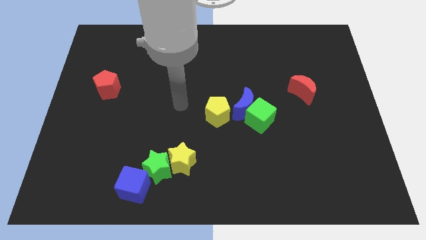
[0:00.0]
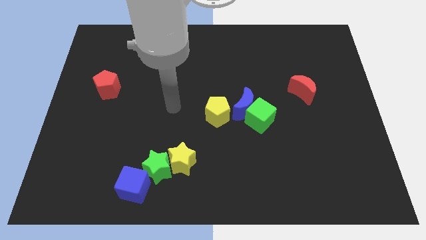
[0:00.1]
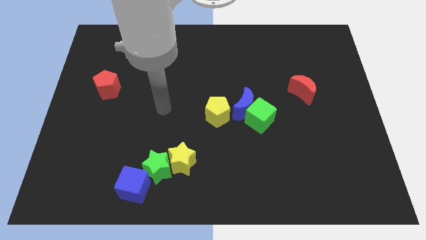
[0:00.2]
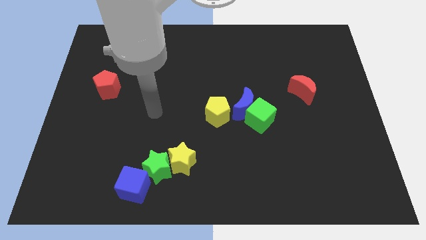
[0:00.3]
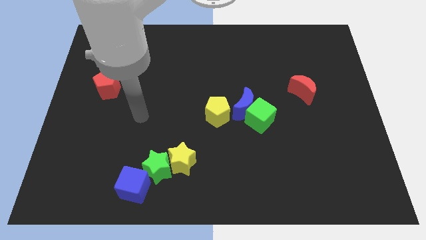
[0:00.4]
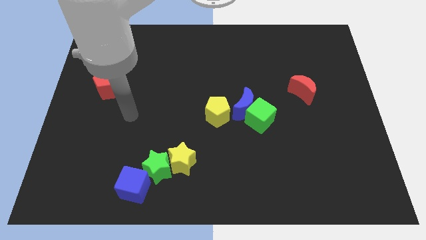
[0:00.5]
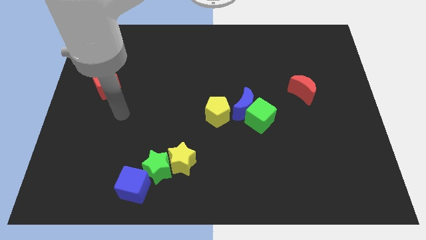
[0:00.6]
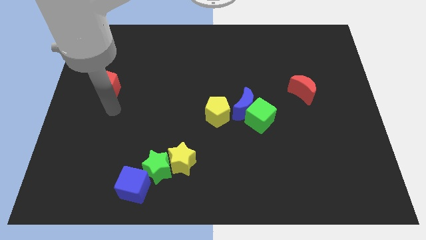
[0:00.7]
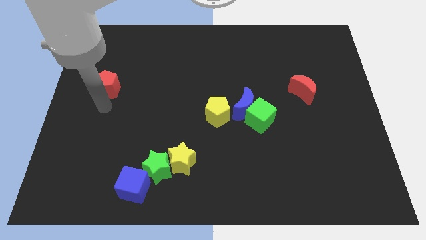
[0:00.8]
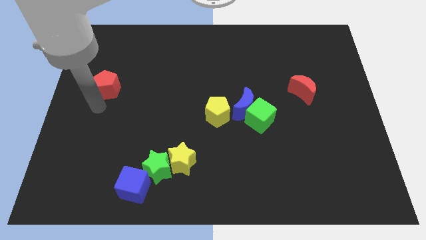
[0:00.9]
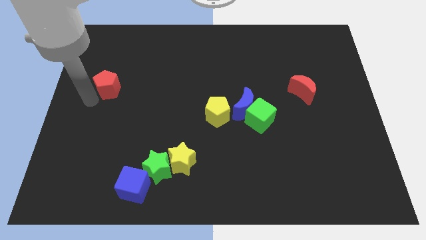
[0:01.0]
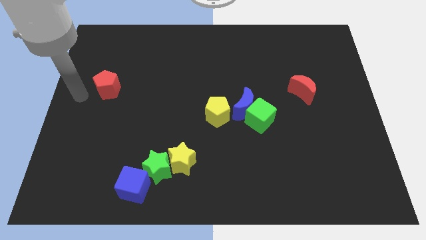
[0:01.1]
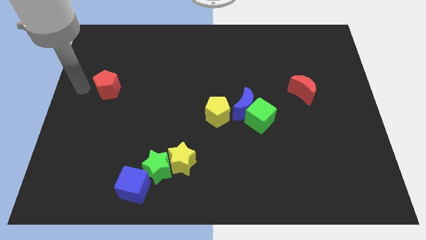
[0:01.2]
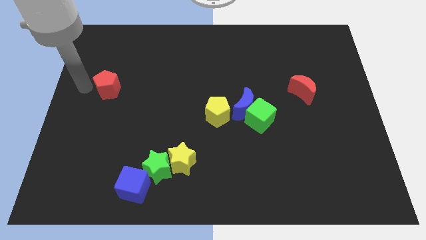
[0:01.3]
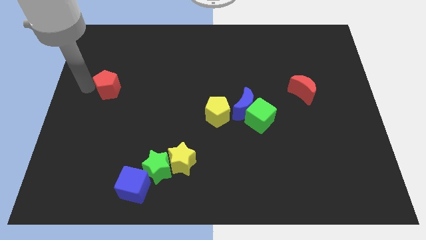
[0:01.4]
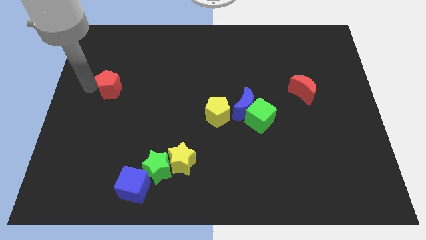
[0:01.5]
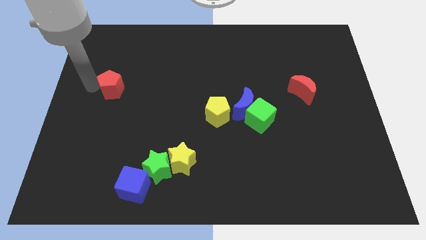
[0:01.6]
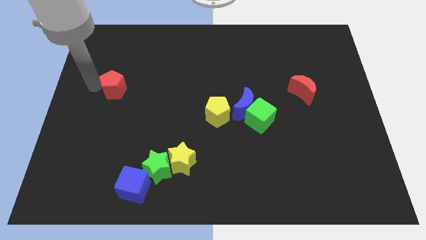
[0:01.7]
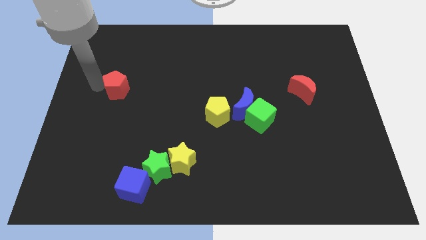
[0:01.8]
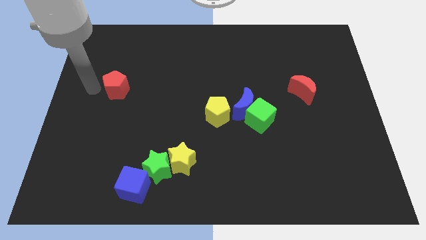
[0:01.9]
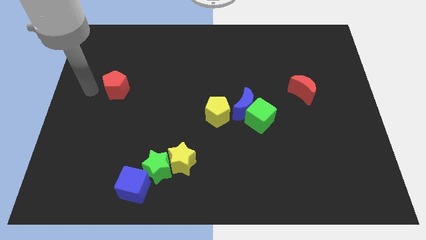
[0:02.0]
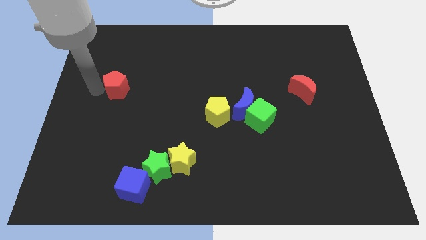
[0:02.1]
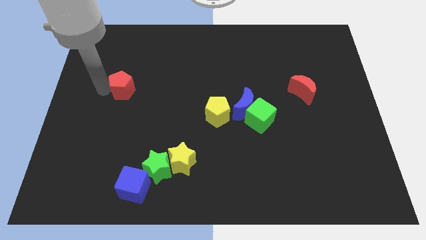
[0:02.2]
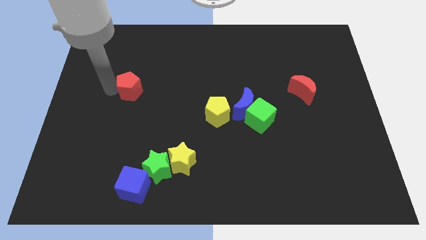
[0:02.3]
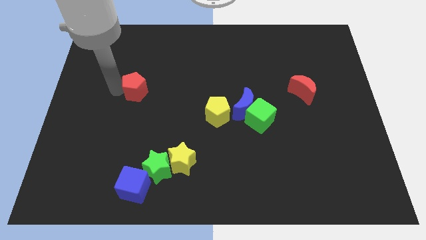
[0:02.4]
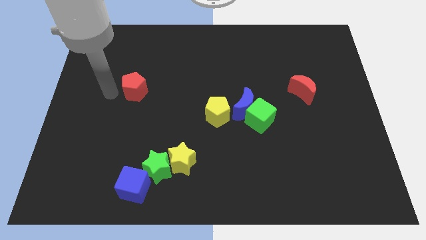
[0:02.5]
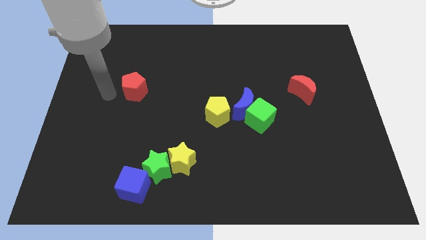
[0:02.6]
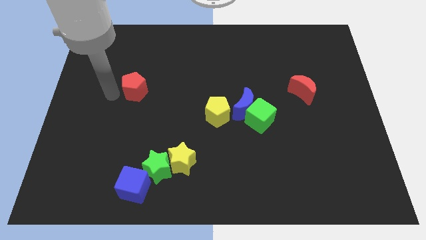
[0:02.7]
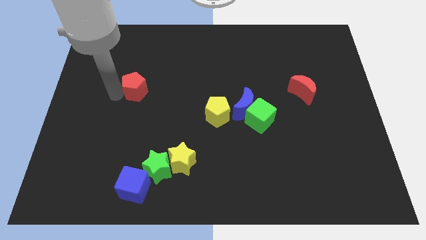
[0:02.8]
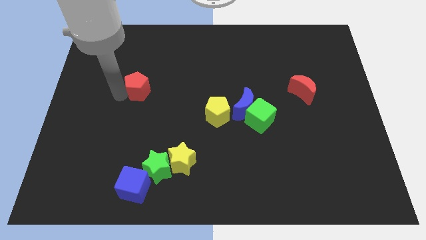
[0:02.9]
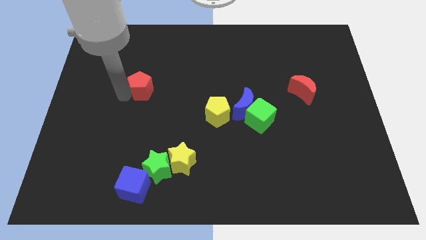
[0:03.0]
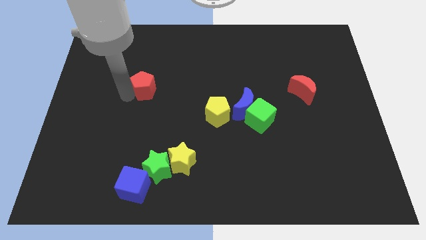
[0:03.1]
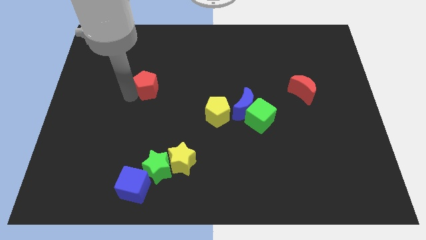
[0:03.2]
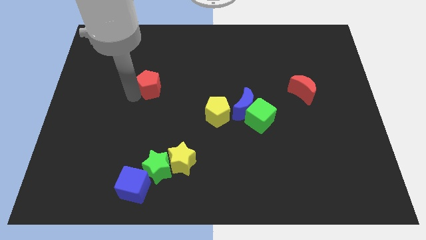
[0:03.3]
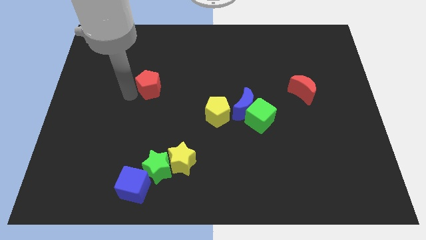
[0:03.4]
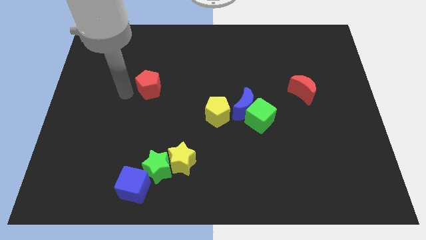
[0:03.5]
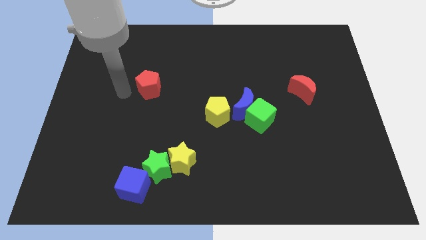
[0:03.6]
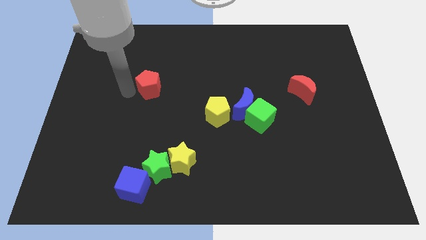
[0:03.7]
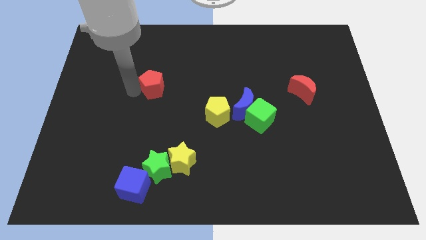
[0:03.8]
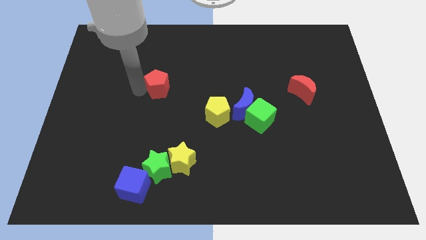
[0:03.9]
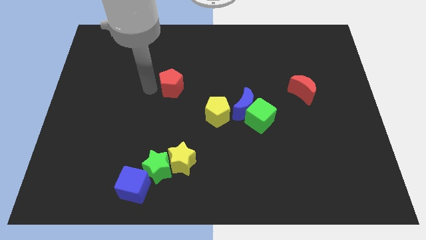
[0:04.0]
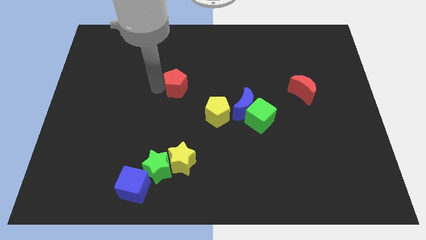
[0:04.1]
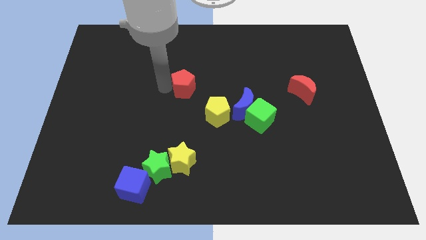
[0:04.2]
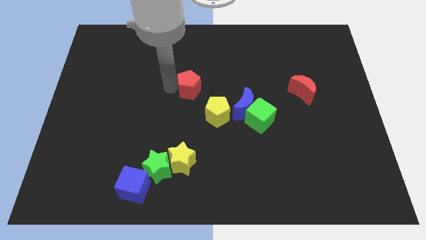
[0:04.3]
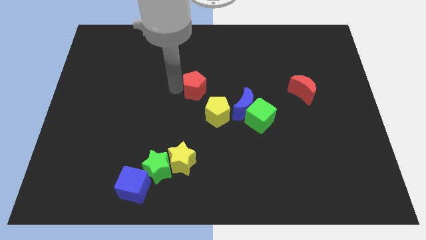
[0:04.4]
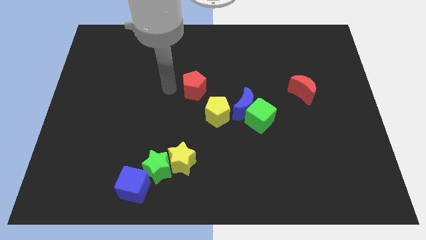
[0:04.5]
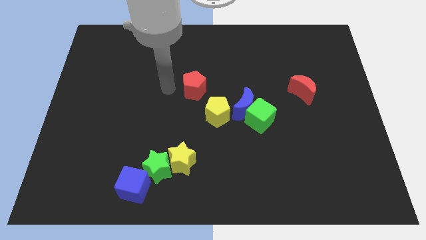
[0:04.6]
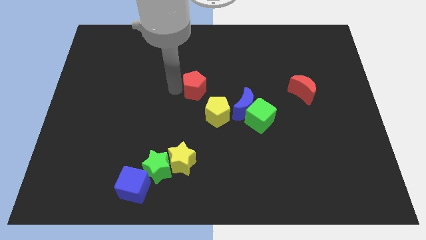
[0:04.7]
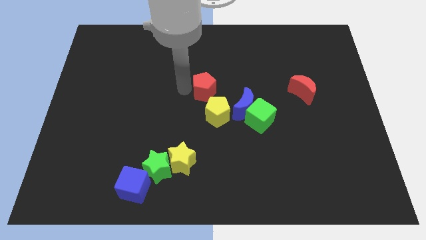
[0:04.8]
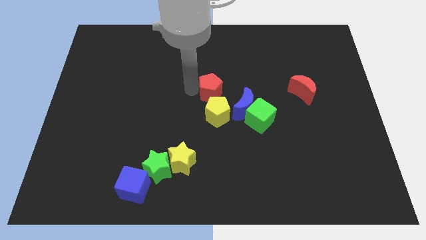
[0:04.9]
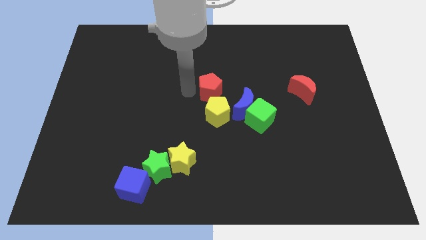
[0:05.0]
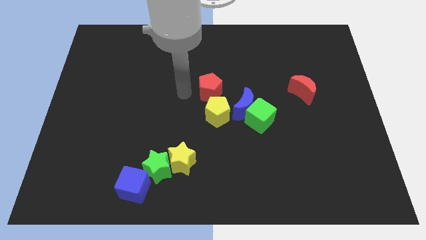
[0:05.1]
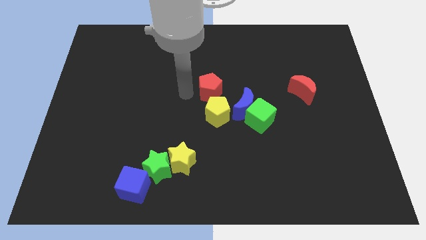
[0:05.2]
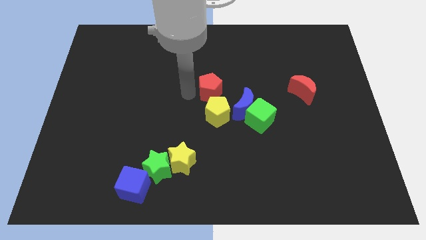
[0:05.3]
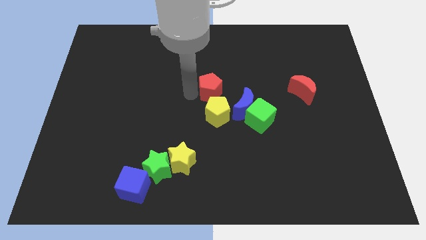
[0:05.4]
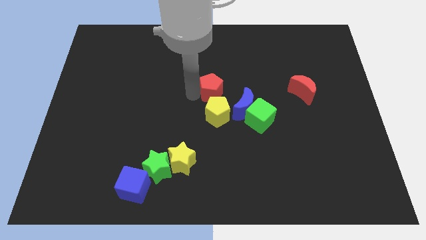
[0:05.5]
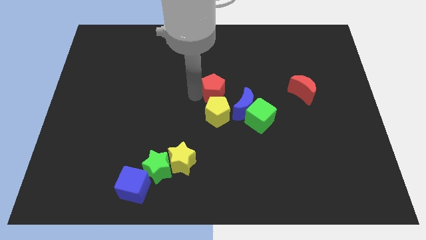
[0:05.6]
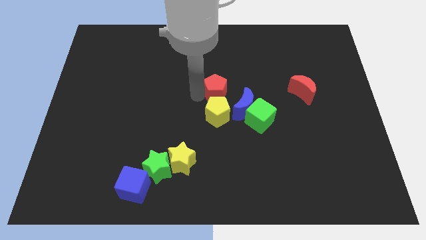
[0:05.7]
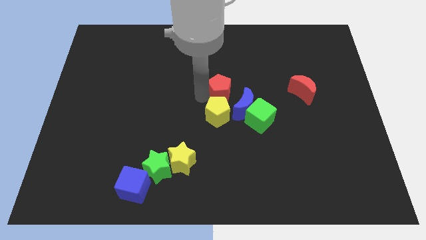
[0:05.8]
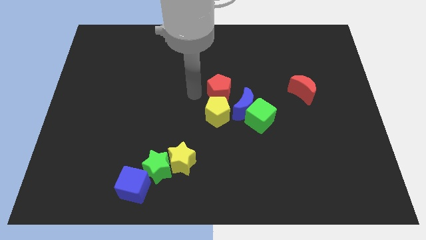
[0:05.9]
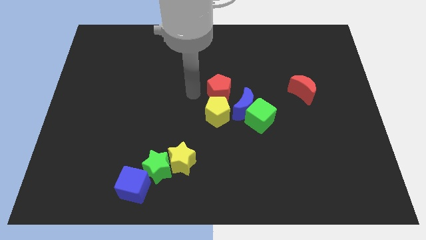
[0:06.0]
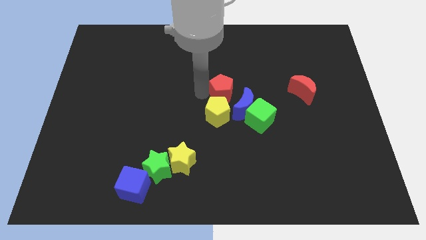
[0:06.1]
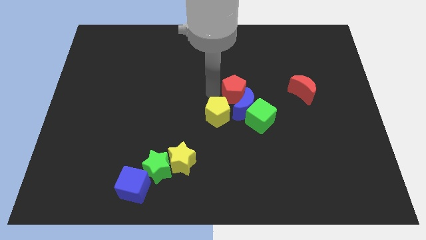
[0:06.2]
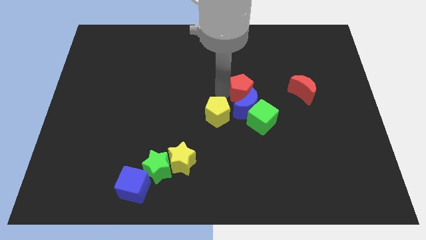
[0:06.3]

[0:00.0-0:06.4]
put the red pentagon to the top right side of the blue moon

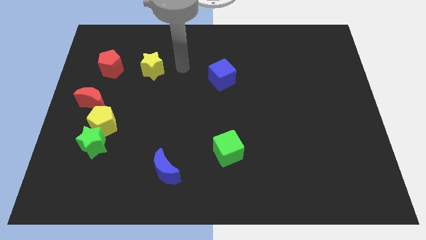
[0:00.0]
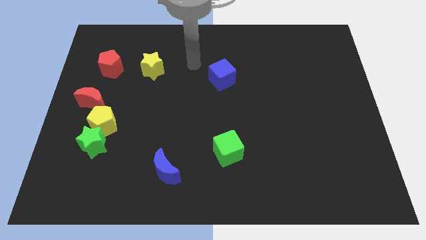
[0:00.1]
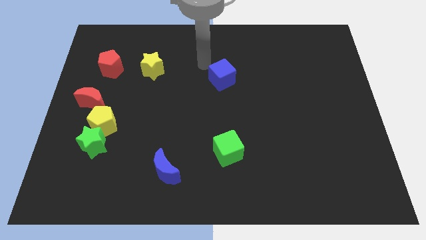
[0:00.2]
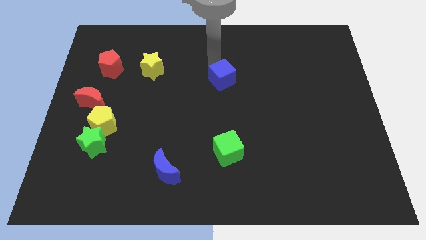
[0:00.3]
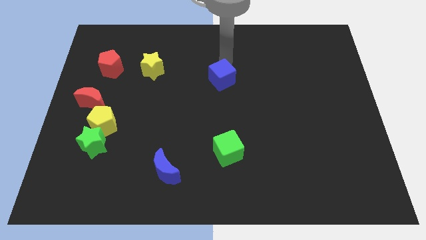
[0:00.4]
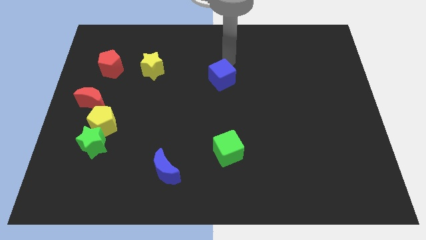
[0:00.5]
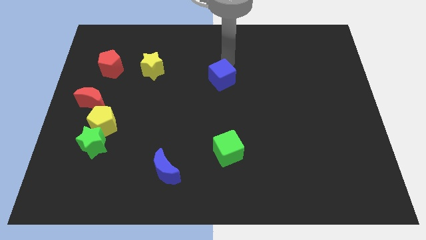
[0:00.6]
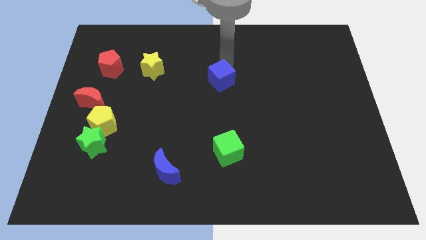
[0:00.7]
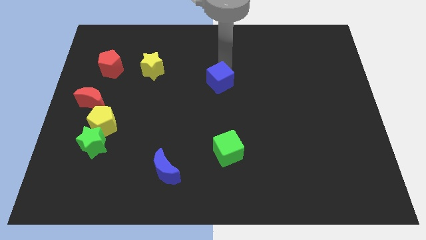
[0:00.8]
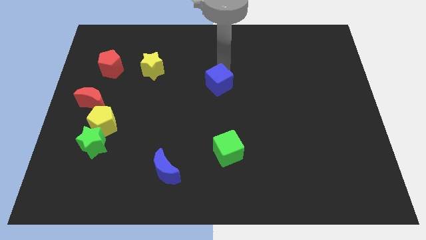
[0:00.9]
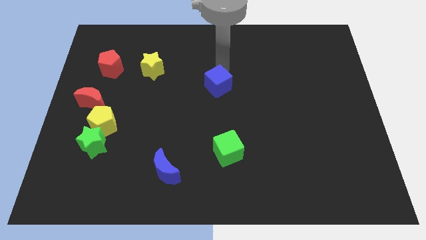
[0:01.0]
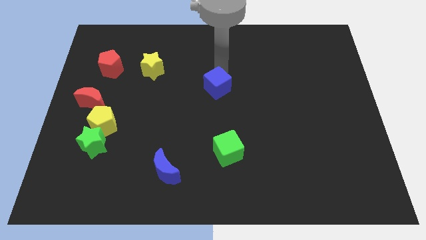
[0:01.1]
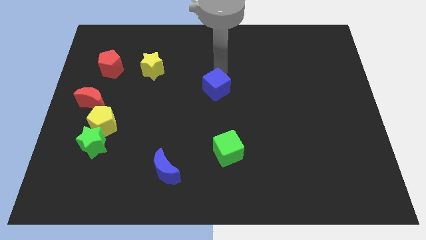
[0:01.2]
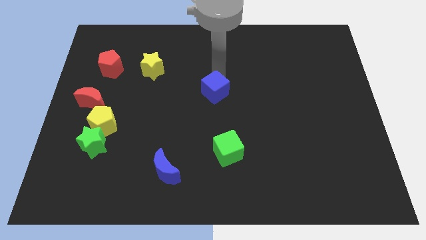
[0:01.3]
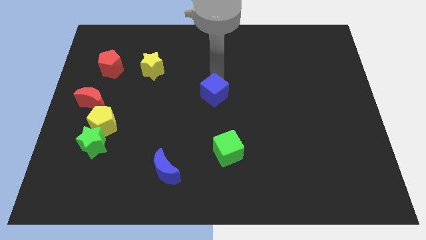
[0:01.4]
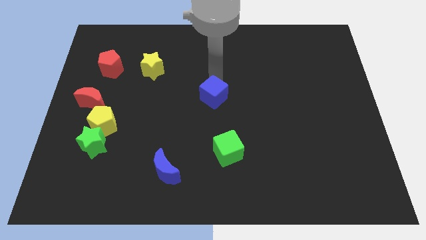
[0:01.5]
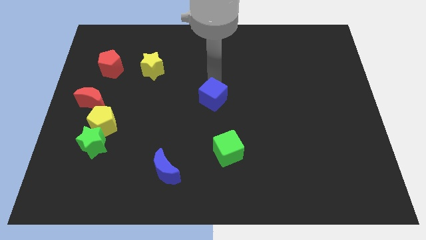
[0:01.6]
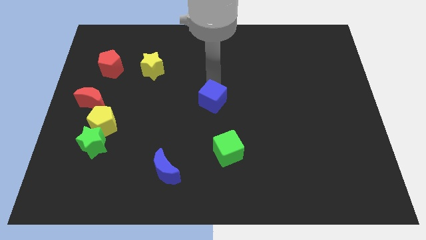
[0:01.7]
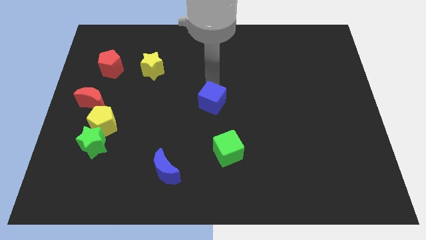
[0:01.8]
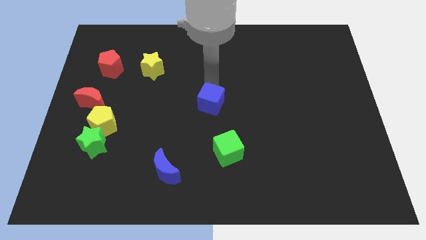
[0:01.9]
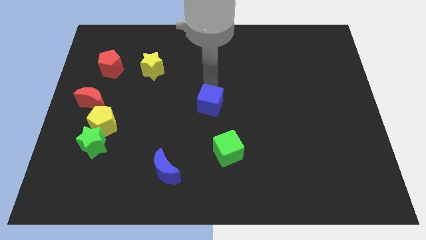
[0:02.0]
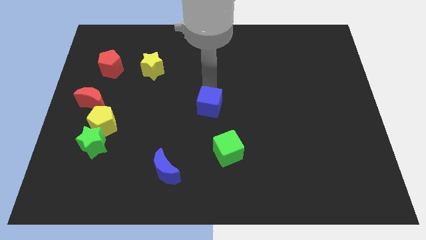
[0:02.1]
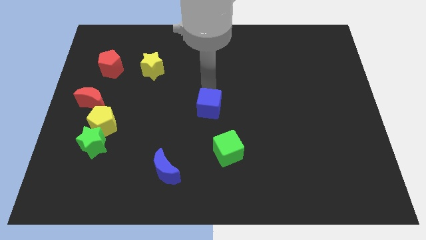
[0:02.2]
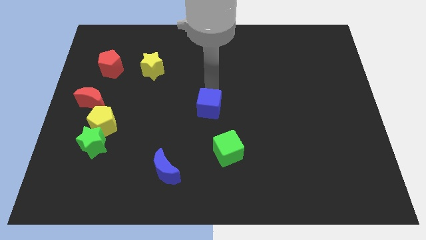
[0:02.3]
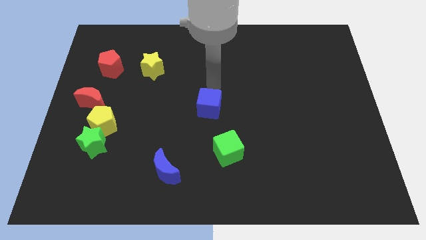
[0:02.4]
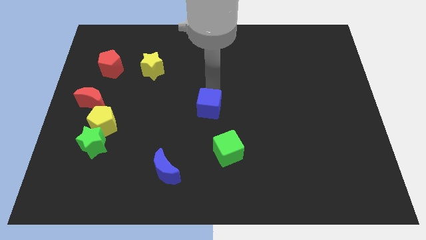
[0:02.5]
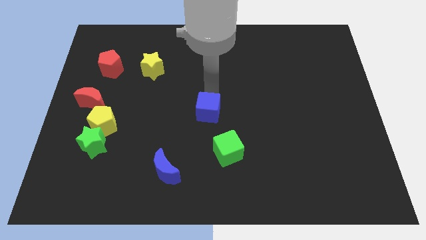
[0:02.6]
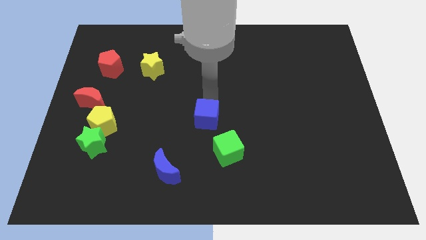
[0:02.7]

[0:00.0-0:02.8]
put the blue cube to the top left of the green cube
